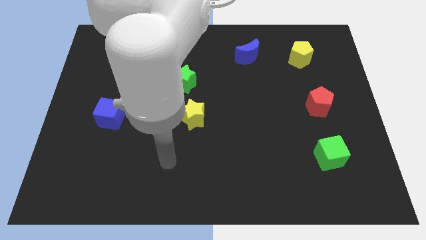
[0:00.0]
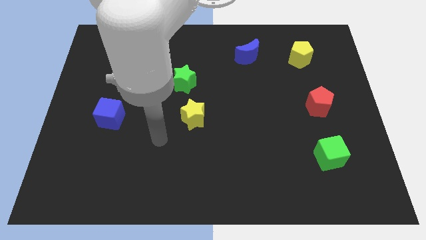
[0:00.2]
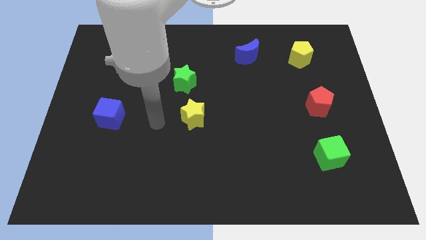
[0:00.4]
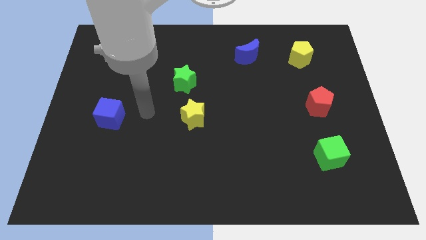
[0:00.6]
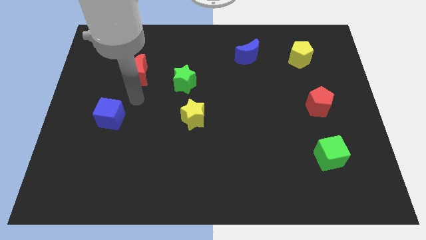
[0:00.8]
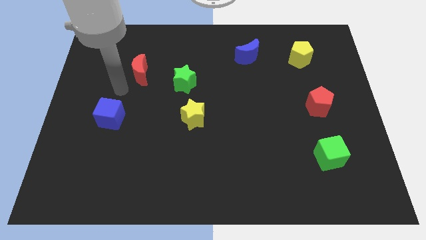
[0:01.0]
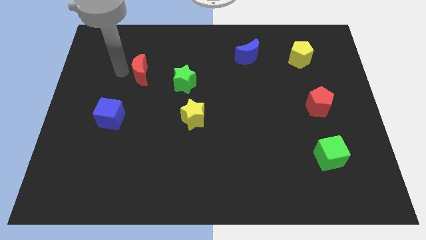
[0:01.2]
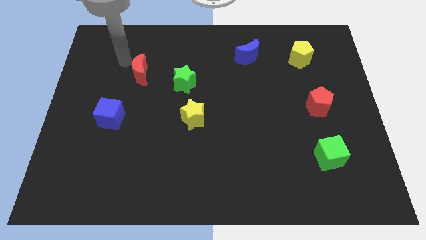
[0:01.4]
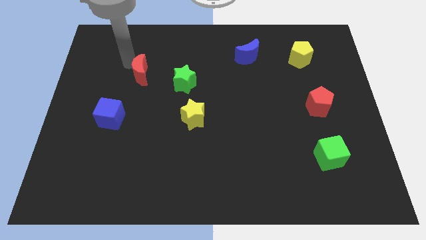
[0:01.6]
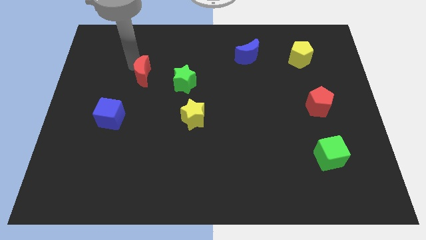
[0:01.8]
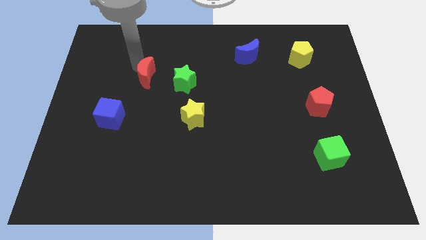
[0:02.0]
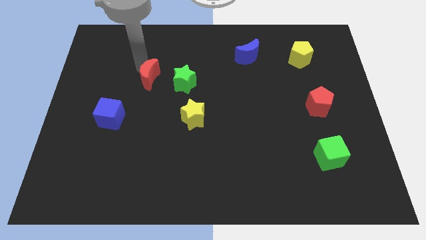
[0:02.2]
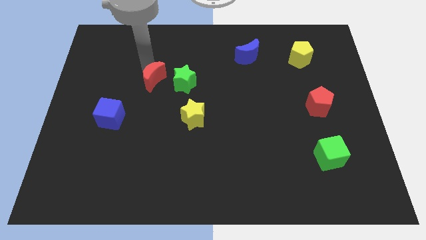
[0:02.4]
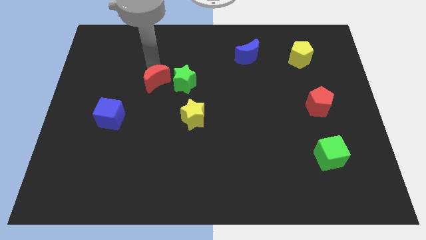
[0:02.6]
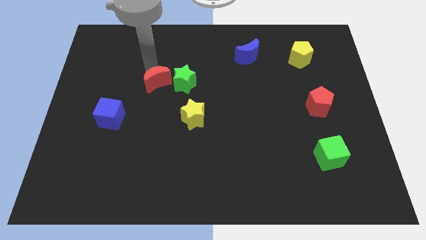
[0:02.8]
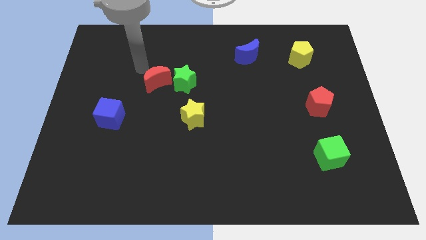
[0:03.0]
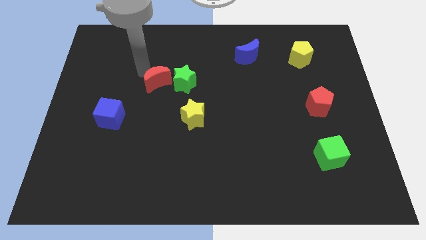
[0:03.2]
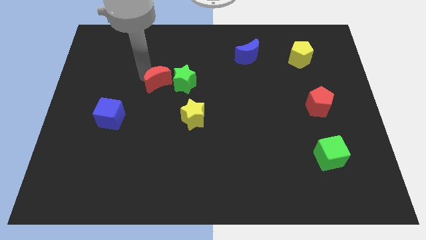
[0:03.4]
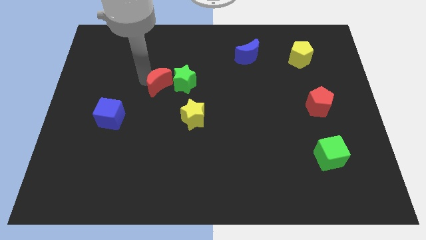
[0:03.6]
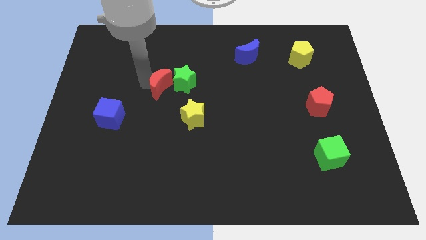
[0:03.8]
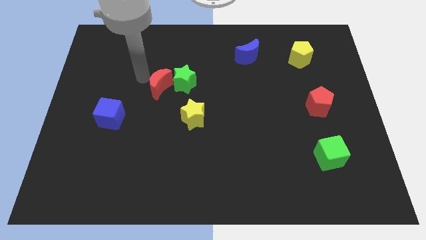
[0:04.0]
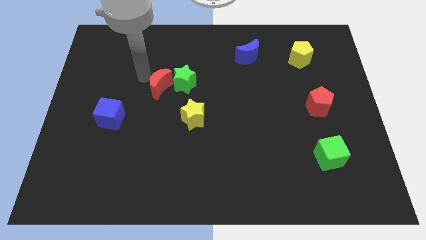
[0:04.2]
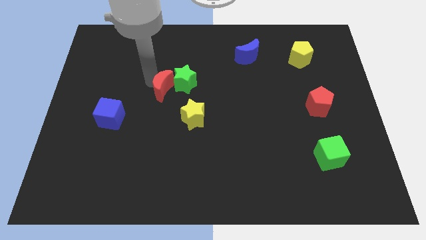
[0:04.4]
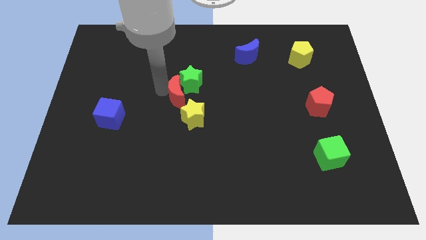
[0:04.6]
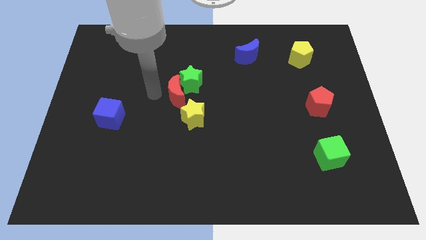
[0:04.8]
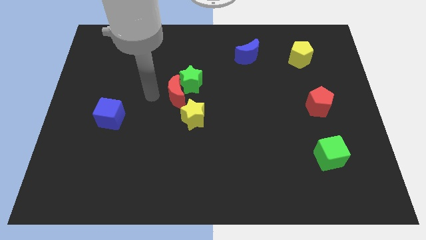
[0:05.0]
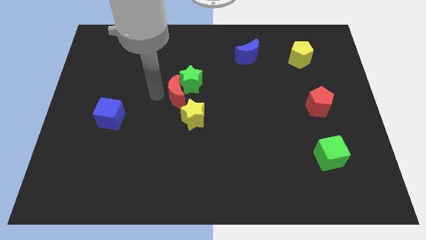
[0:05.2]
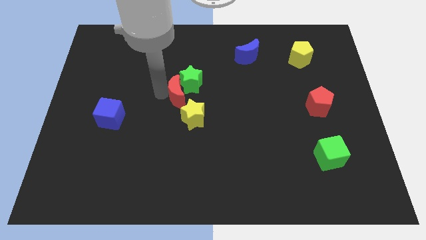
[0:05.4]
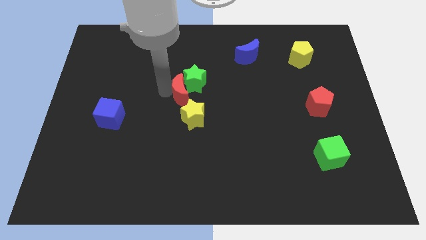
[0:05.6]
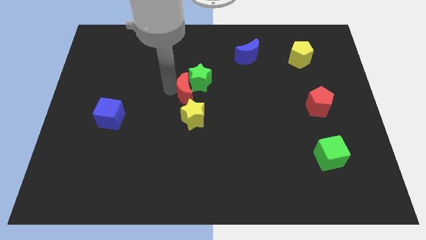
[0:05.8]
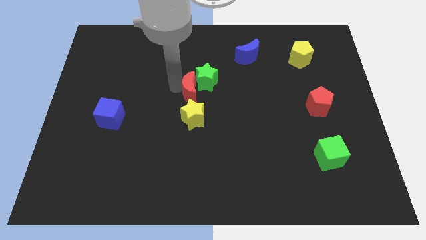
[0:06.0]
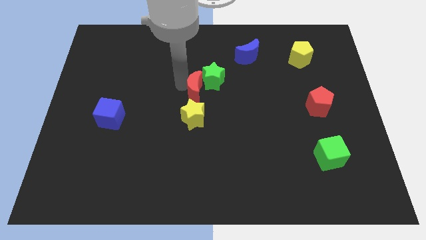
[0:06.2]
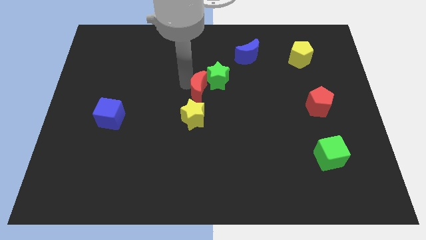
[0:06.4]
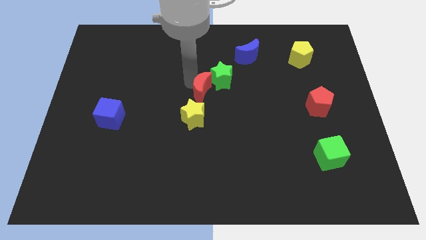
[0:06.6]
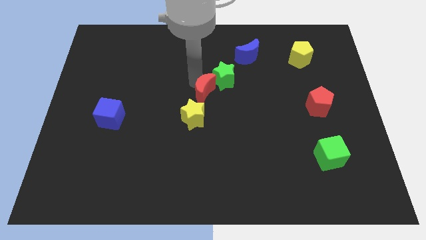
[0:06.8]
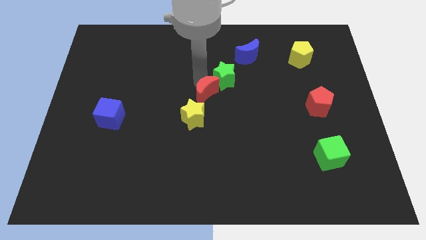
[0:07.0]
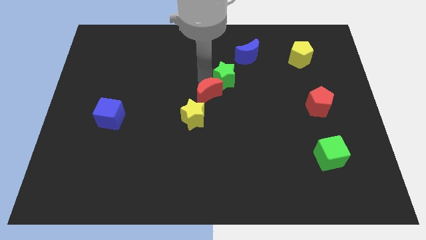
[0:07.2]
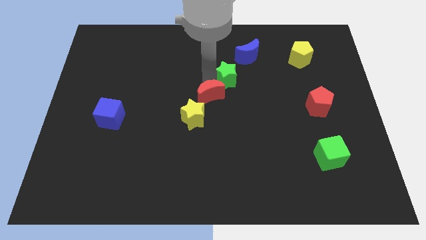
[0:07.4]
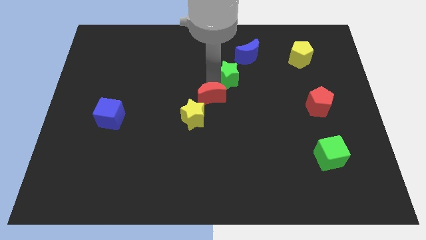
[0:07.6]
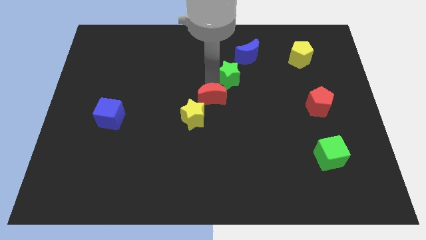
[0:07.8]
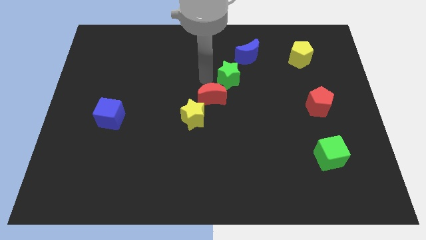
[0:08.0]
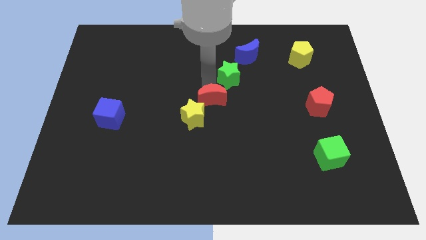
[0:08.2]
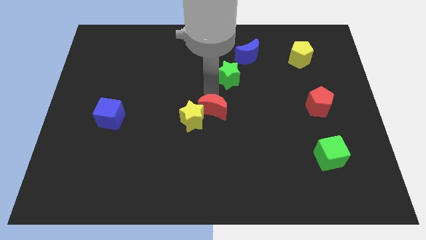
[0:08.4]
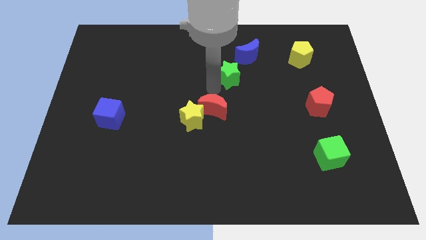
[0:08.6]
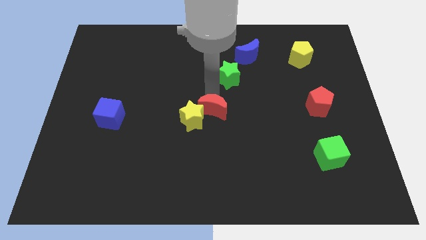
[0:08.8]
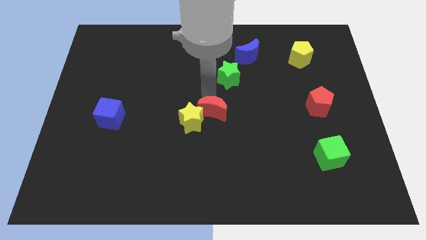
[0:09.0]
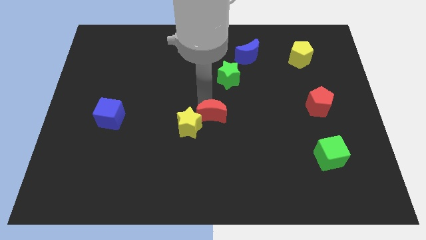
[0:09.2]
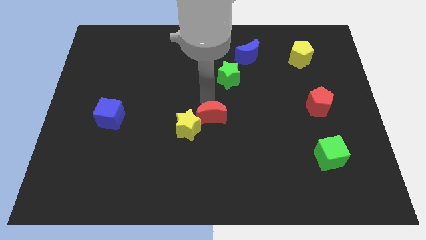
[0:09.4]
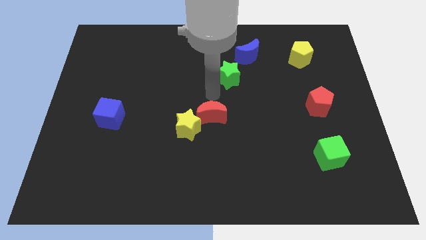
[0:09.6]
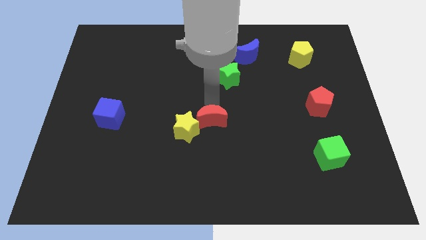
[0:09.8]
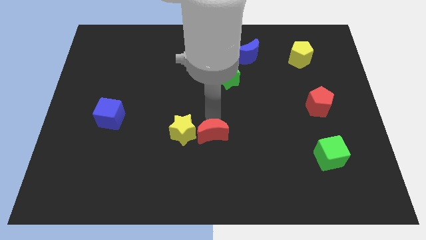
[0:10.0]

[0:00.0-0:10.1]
move the red moon to the bottom right side of the yellow star

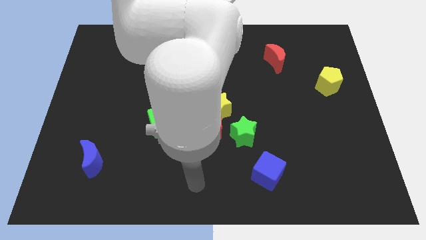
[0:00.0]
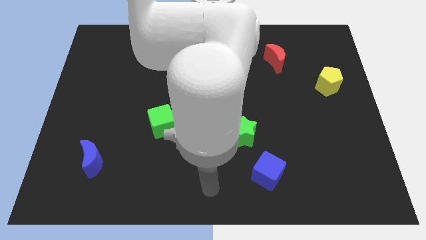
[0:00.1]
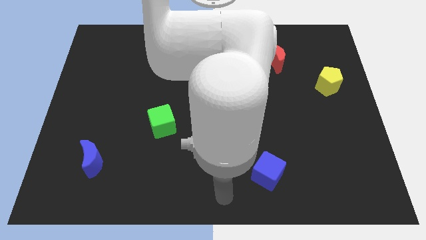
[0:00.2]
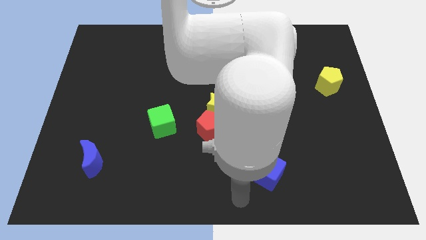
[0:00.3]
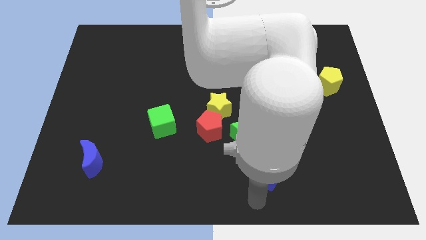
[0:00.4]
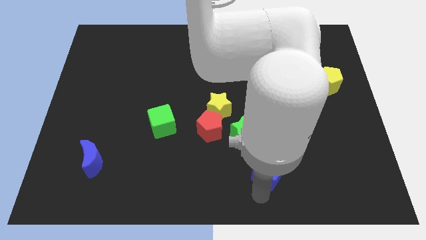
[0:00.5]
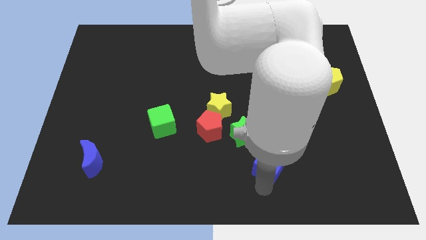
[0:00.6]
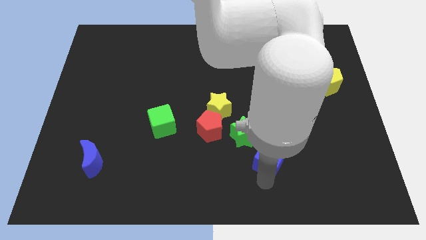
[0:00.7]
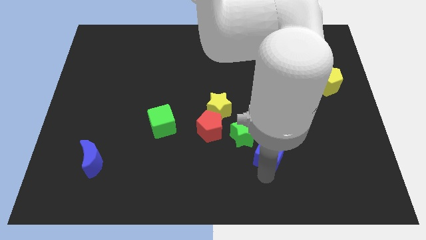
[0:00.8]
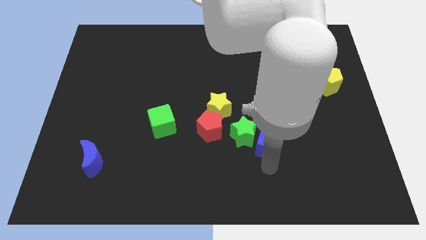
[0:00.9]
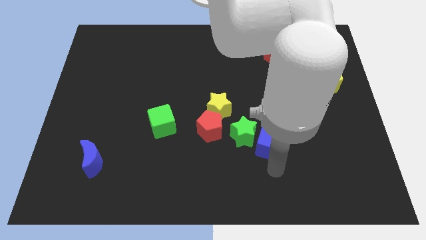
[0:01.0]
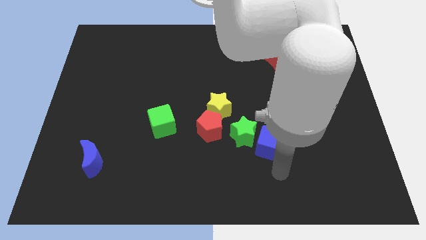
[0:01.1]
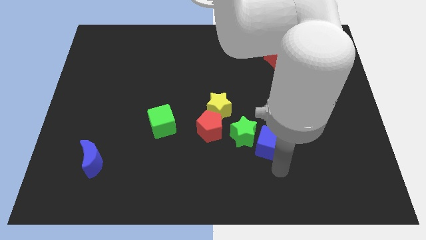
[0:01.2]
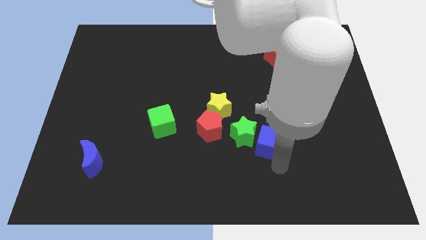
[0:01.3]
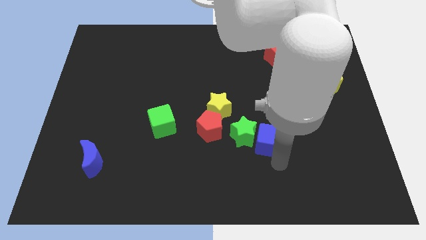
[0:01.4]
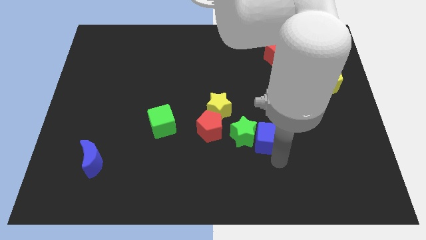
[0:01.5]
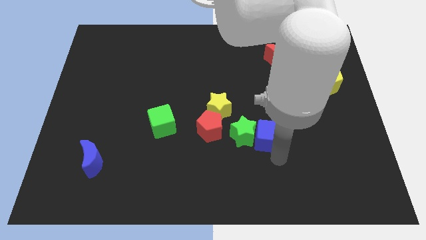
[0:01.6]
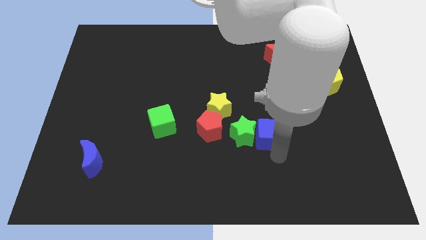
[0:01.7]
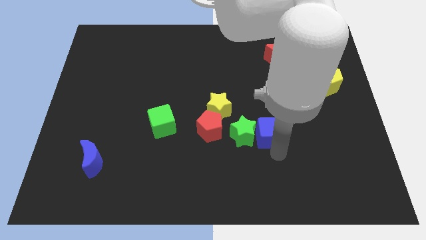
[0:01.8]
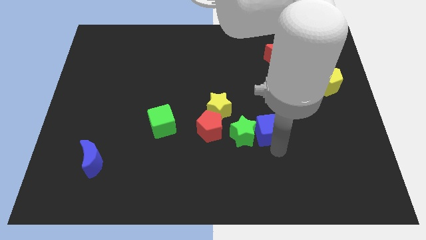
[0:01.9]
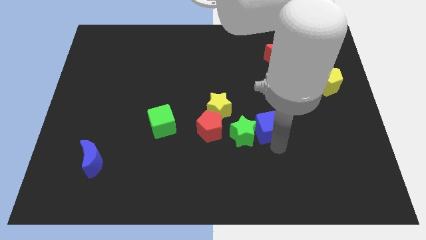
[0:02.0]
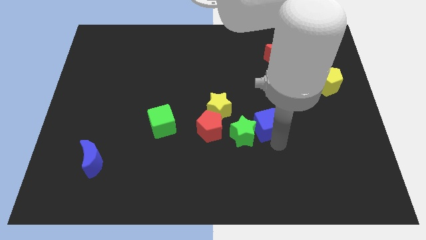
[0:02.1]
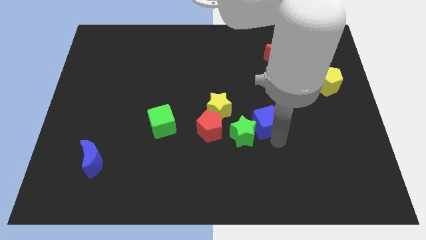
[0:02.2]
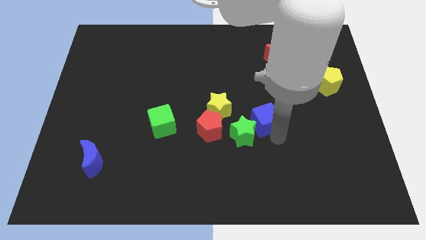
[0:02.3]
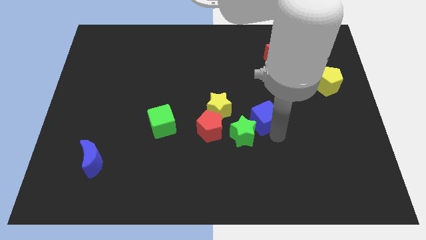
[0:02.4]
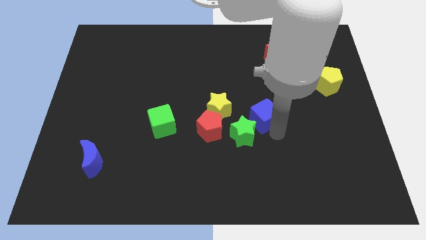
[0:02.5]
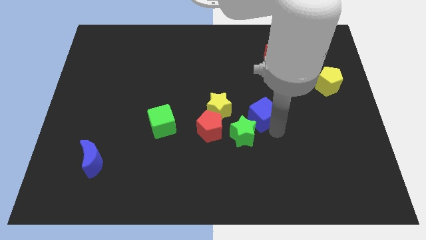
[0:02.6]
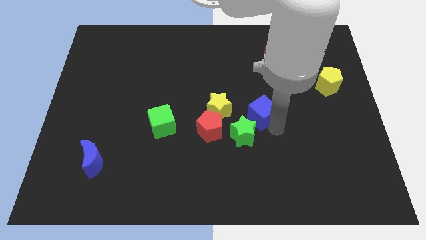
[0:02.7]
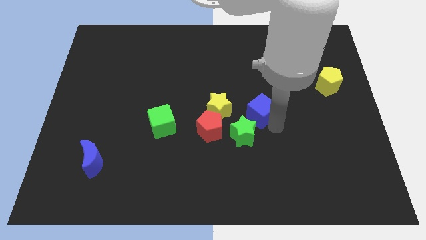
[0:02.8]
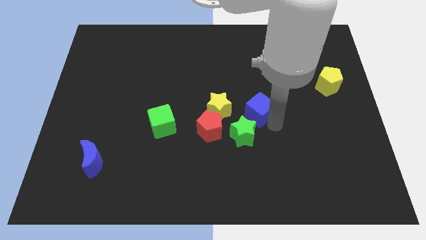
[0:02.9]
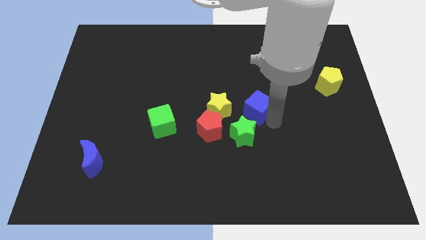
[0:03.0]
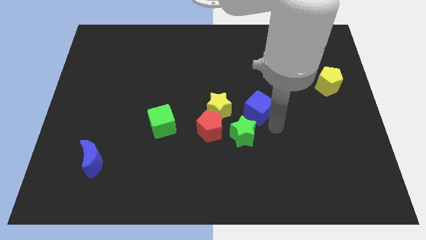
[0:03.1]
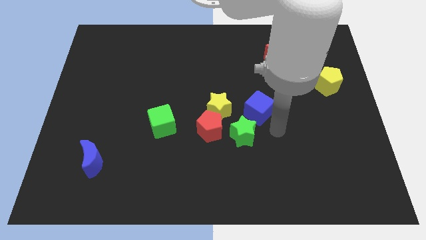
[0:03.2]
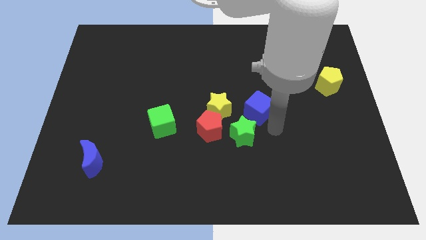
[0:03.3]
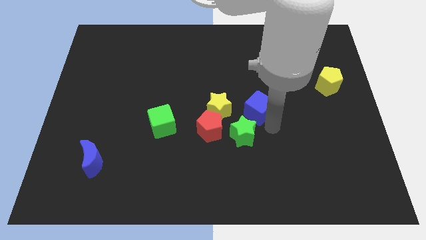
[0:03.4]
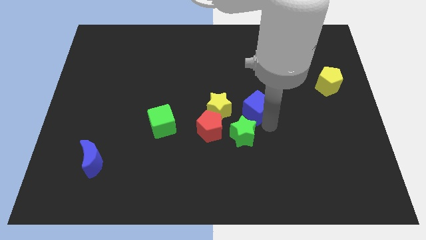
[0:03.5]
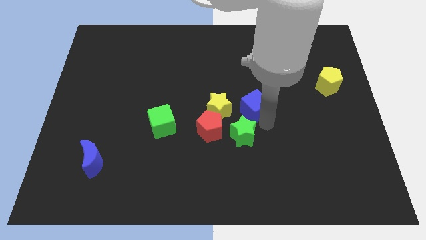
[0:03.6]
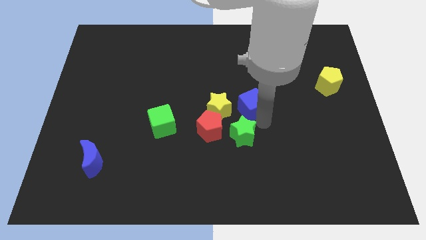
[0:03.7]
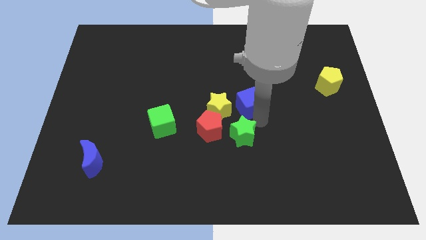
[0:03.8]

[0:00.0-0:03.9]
put the blue cube to the top right side of the yellow star
